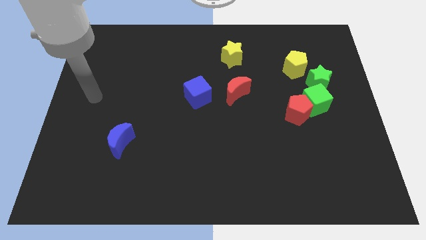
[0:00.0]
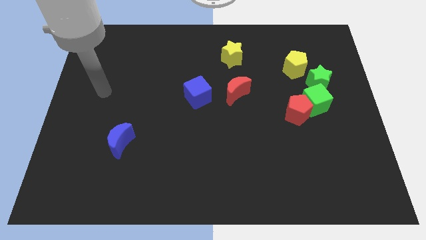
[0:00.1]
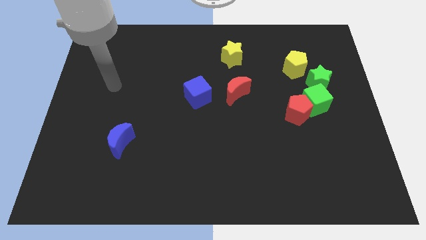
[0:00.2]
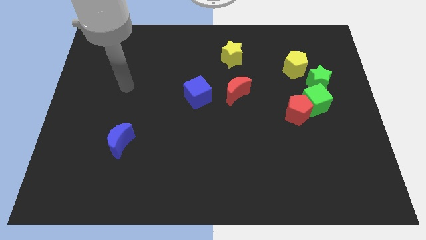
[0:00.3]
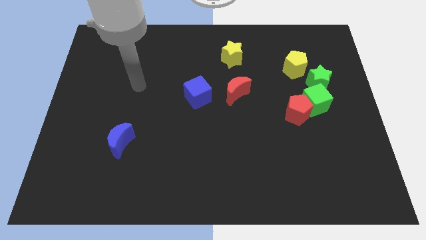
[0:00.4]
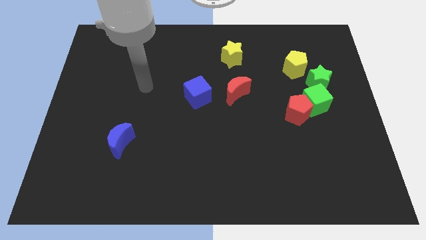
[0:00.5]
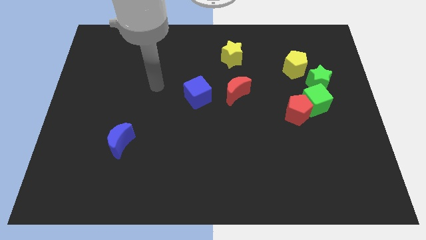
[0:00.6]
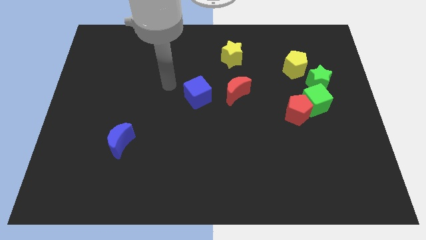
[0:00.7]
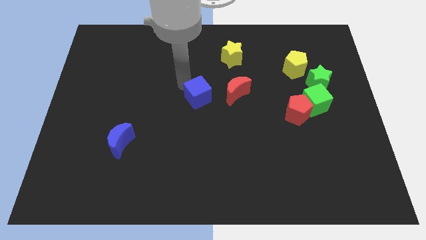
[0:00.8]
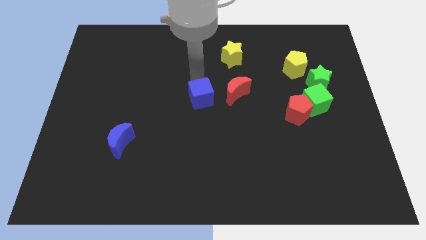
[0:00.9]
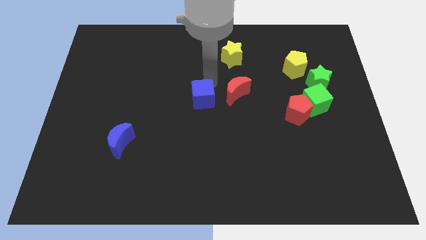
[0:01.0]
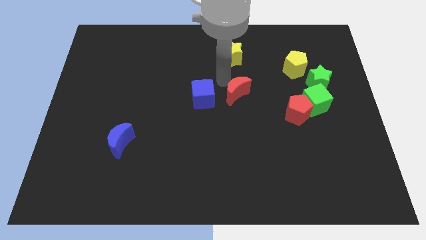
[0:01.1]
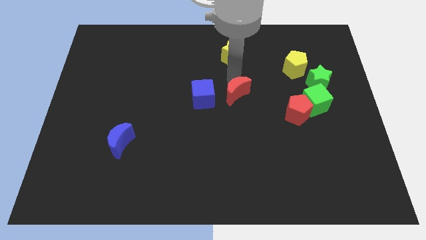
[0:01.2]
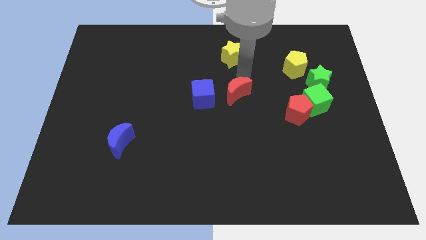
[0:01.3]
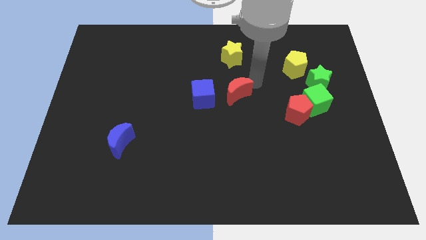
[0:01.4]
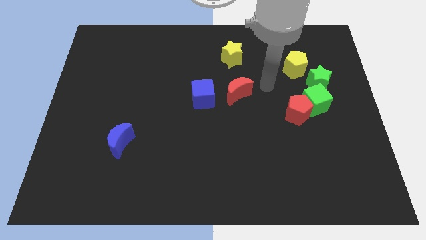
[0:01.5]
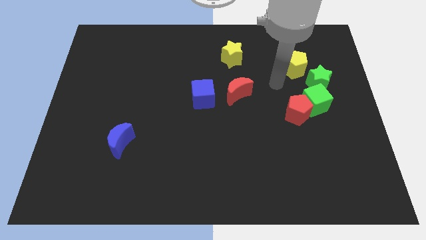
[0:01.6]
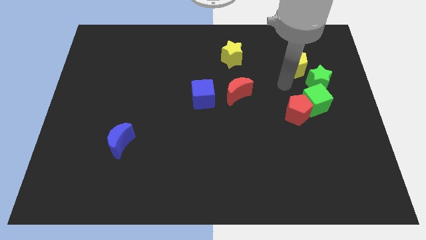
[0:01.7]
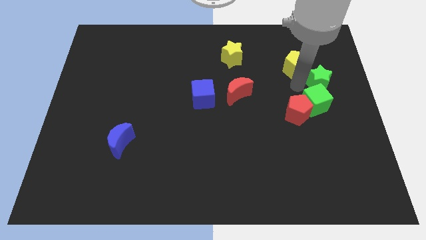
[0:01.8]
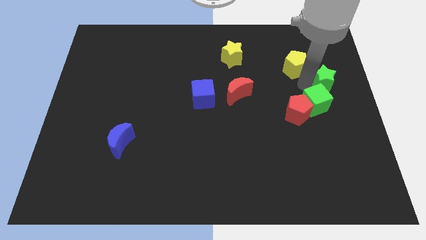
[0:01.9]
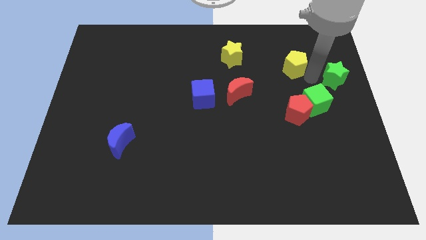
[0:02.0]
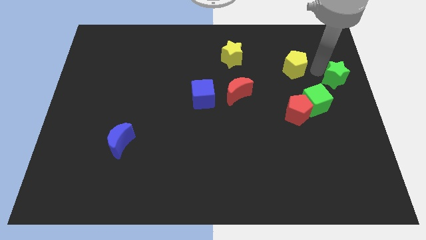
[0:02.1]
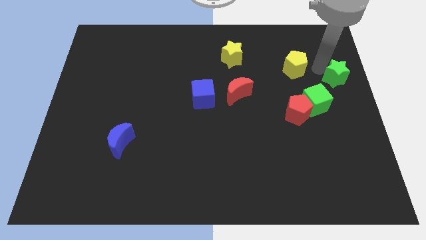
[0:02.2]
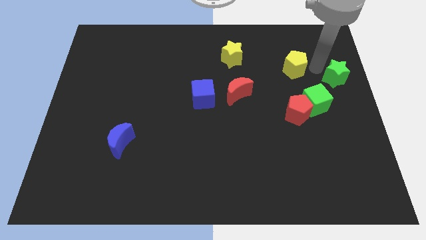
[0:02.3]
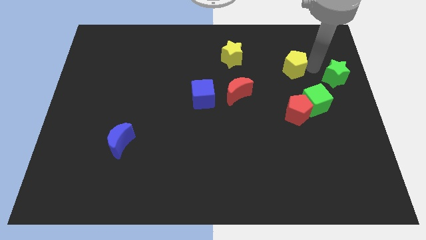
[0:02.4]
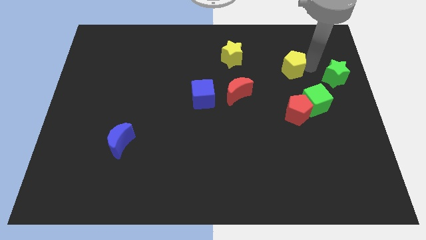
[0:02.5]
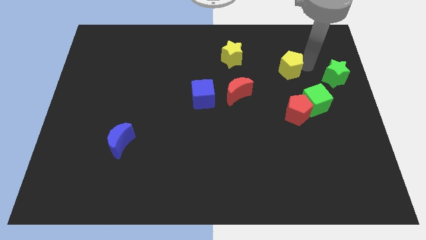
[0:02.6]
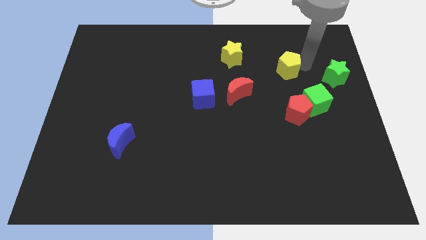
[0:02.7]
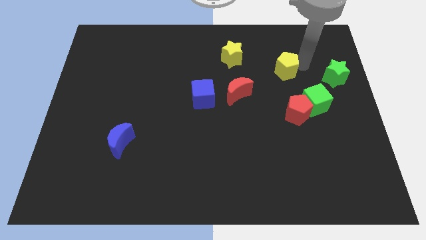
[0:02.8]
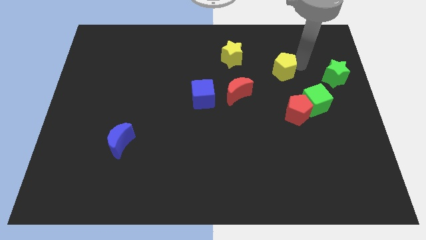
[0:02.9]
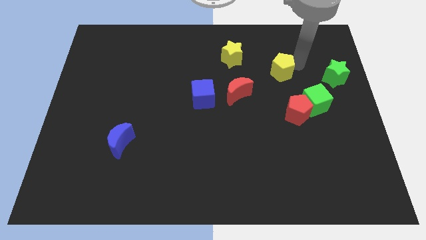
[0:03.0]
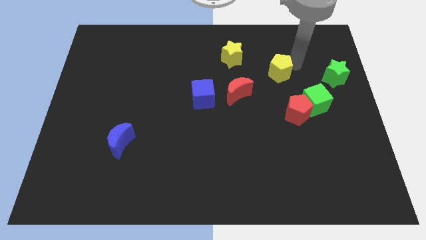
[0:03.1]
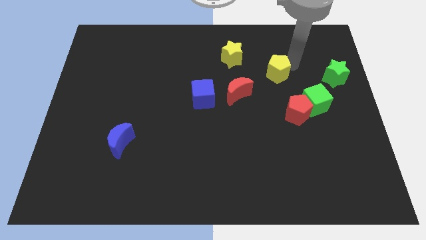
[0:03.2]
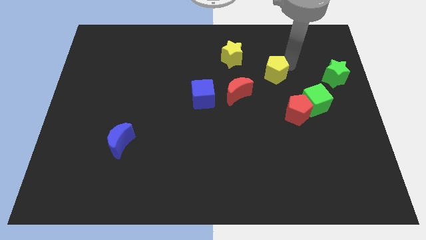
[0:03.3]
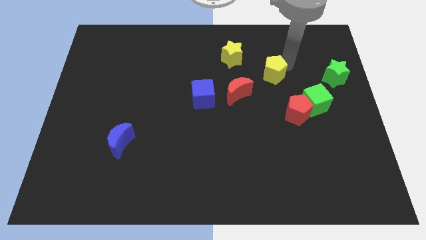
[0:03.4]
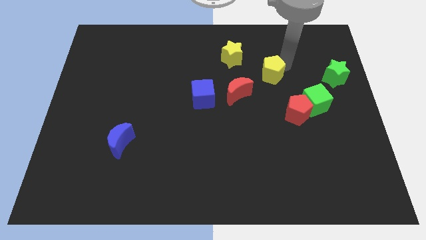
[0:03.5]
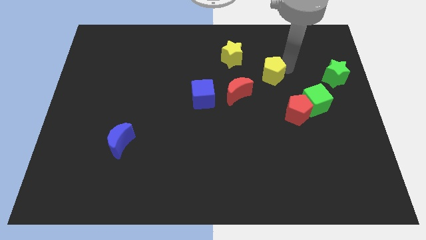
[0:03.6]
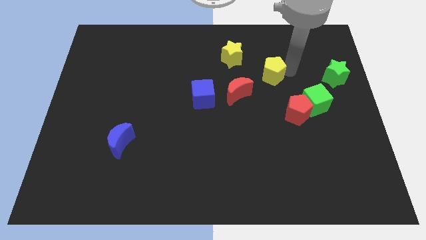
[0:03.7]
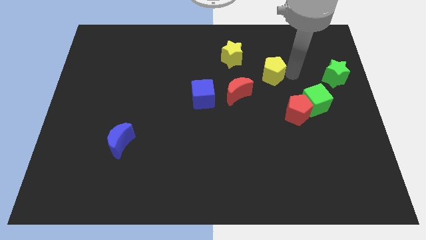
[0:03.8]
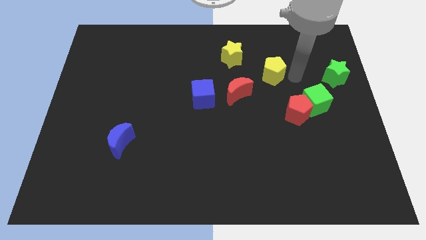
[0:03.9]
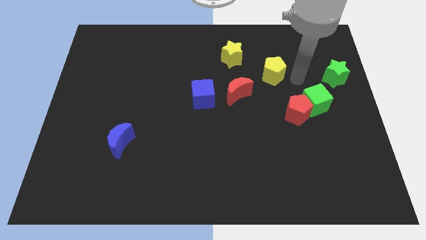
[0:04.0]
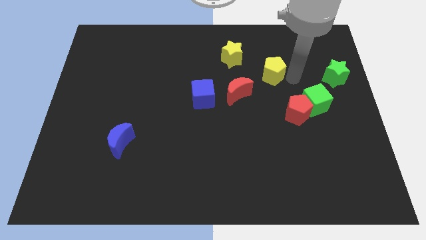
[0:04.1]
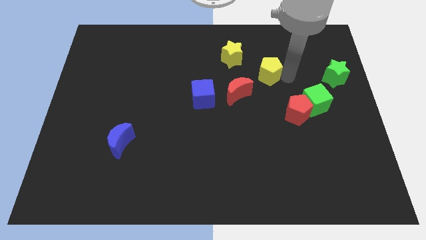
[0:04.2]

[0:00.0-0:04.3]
slide the yellow pentagon slightly to the left

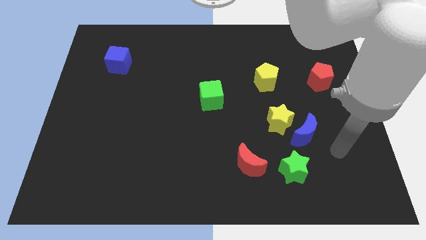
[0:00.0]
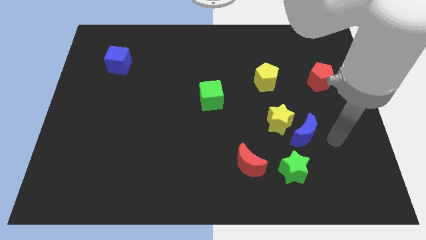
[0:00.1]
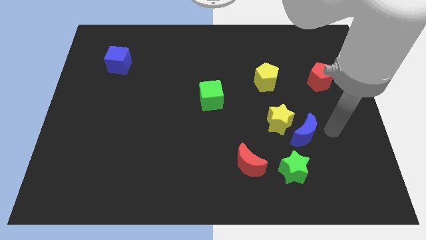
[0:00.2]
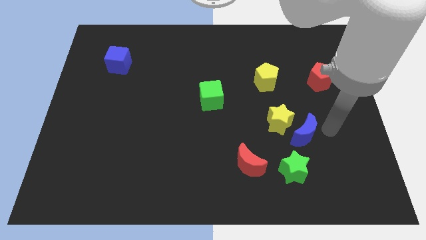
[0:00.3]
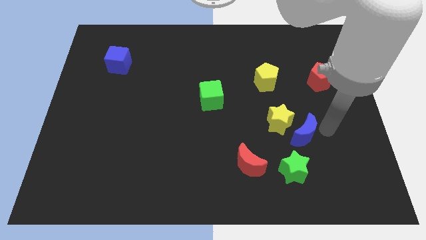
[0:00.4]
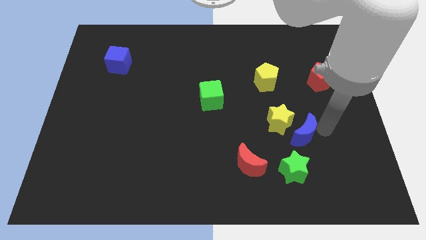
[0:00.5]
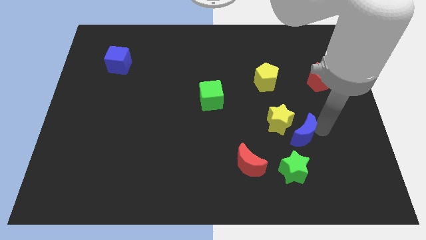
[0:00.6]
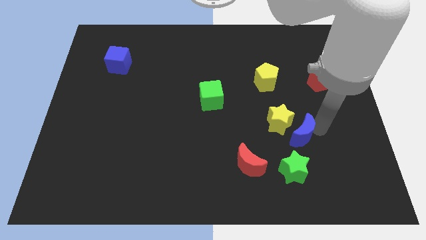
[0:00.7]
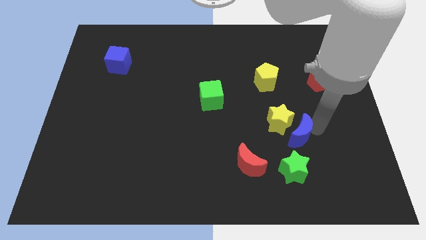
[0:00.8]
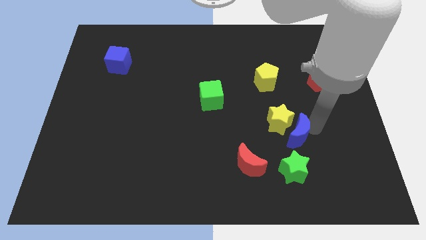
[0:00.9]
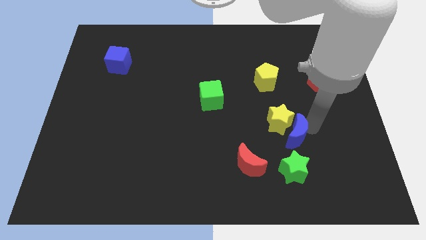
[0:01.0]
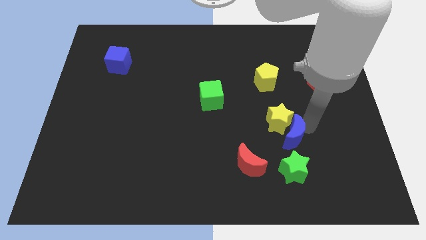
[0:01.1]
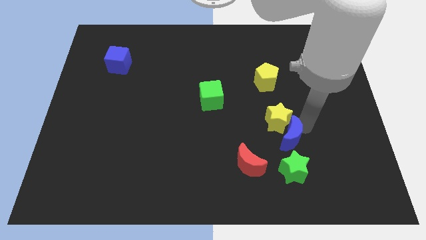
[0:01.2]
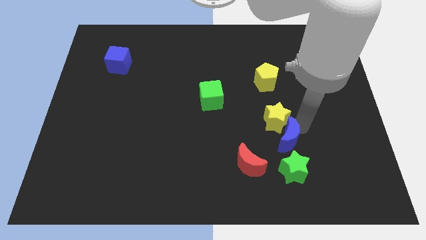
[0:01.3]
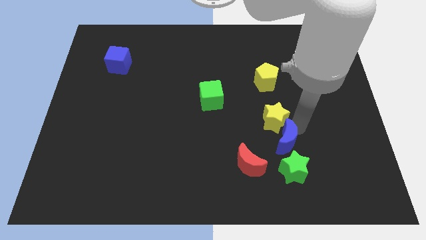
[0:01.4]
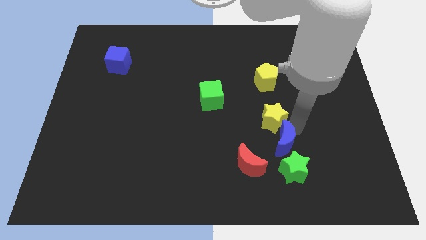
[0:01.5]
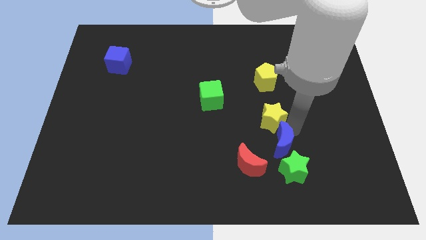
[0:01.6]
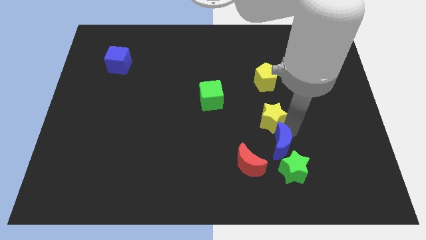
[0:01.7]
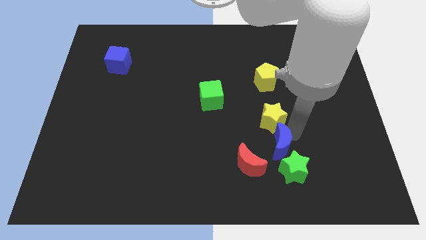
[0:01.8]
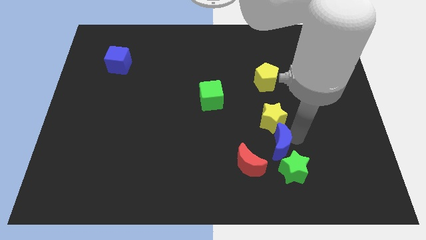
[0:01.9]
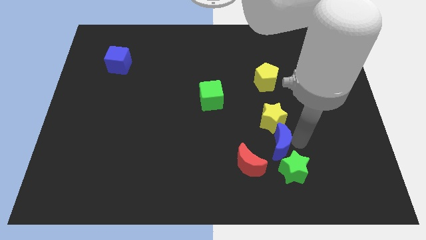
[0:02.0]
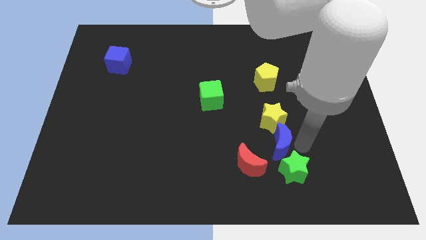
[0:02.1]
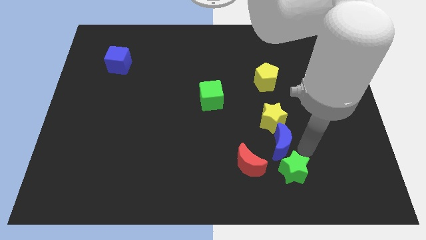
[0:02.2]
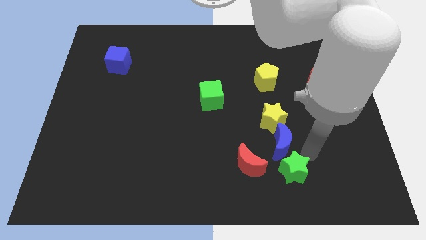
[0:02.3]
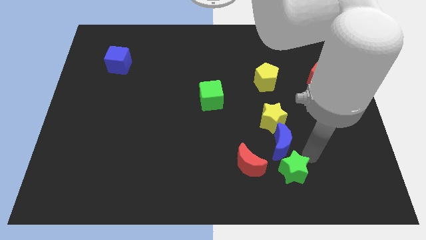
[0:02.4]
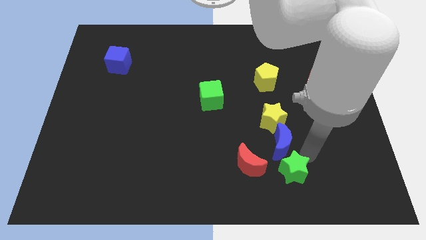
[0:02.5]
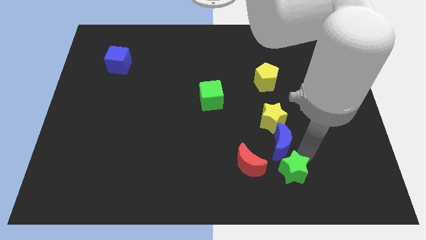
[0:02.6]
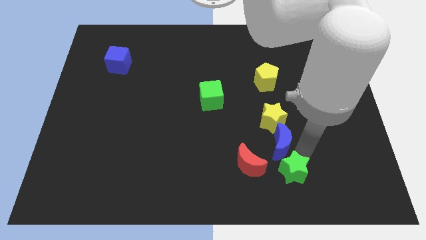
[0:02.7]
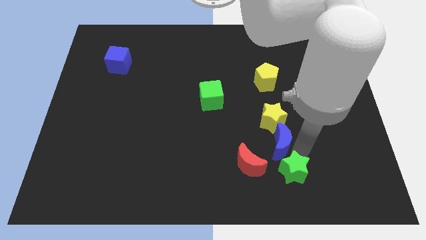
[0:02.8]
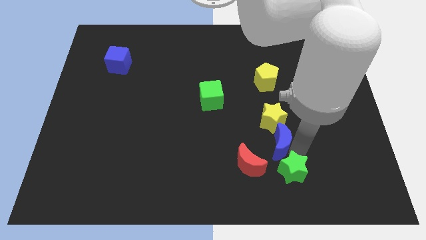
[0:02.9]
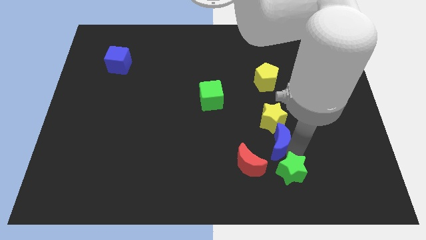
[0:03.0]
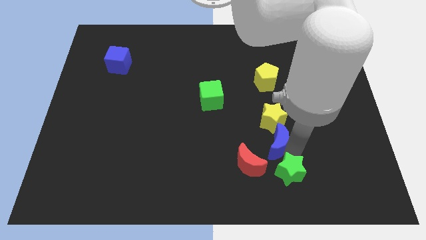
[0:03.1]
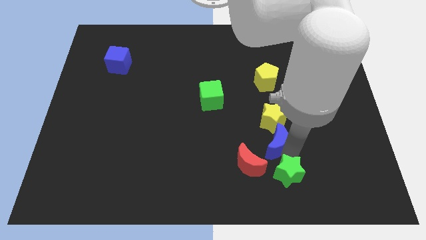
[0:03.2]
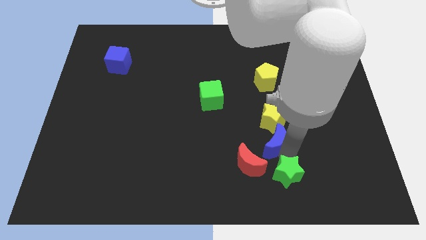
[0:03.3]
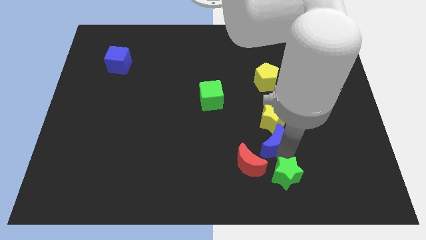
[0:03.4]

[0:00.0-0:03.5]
push the blue moon a bit left
